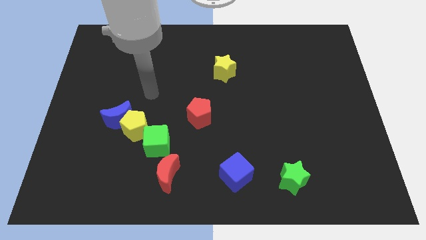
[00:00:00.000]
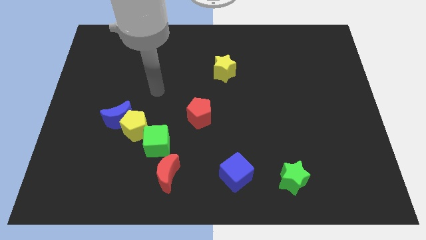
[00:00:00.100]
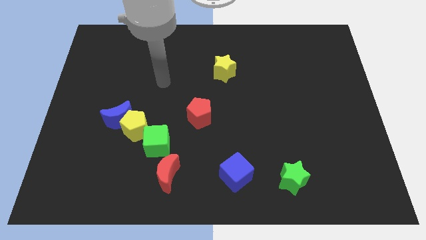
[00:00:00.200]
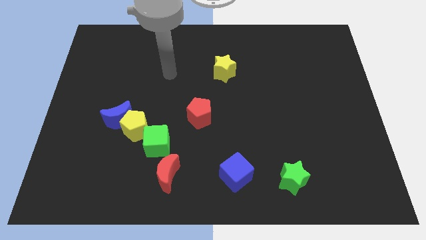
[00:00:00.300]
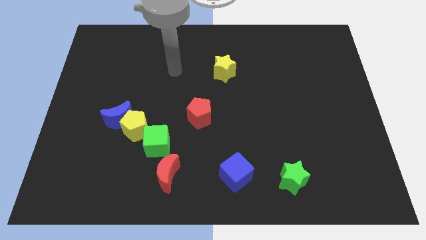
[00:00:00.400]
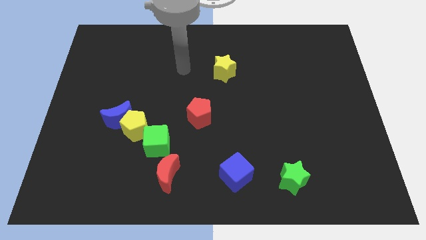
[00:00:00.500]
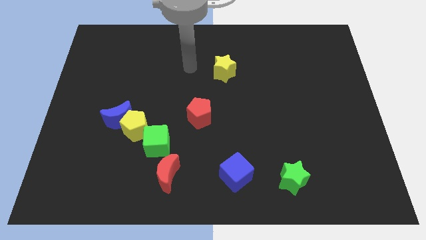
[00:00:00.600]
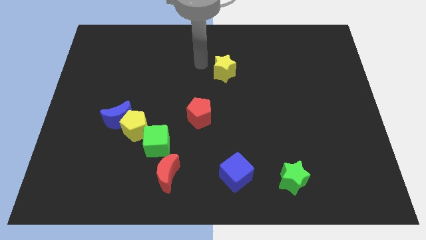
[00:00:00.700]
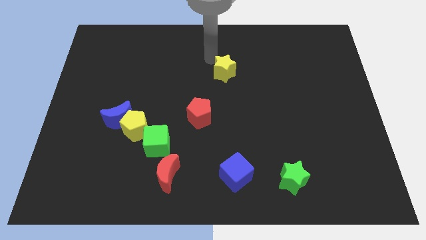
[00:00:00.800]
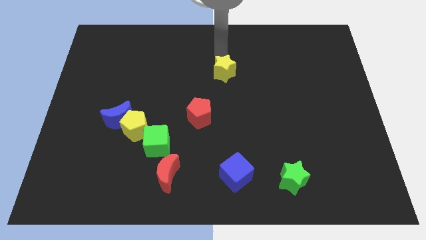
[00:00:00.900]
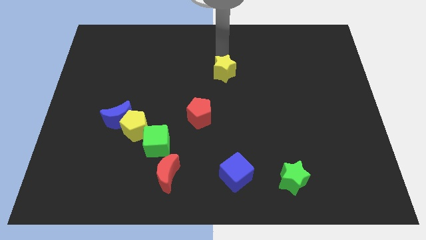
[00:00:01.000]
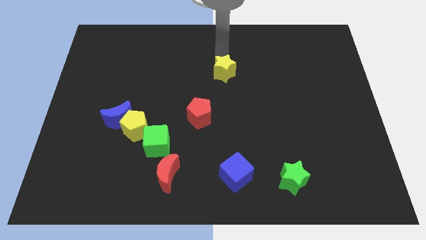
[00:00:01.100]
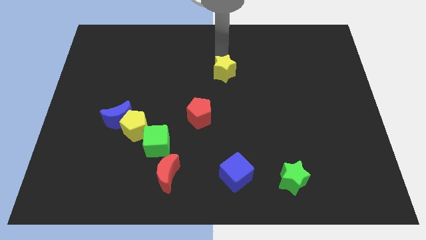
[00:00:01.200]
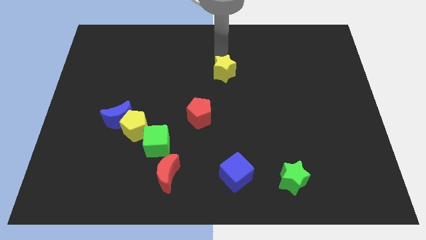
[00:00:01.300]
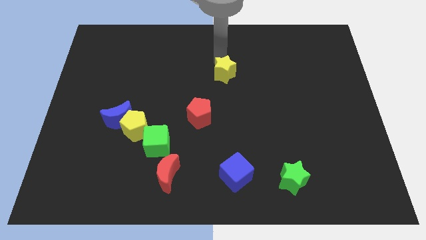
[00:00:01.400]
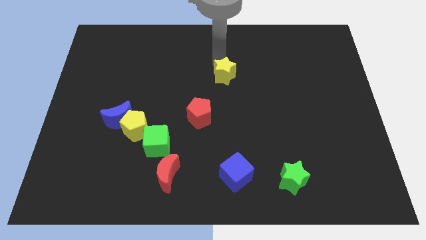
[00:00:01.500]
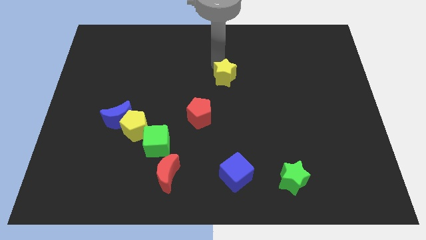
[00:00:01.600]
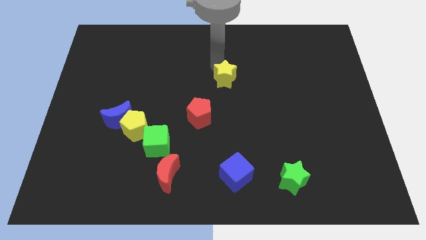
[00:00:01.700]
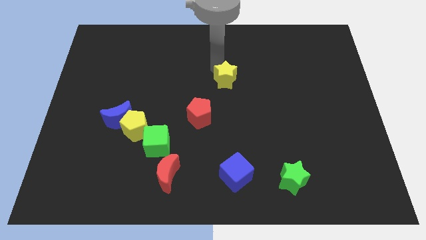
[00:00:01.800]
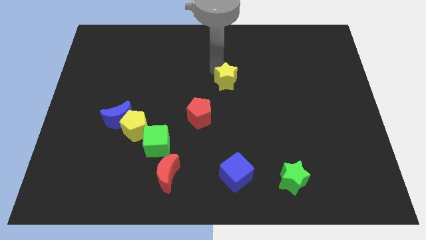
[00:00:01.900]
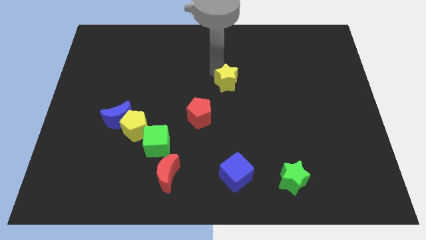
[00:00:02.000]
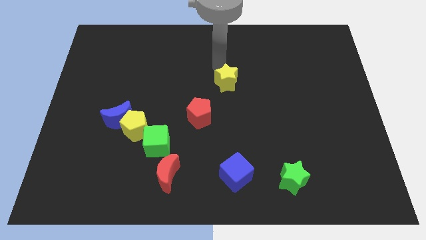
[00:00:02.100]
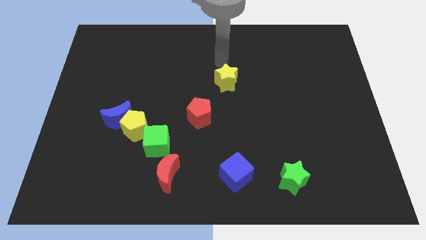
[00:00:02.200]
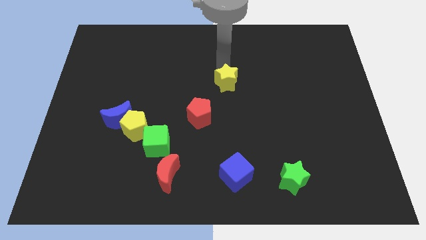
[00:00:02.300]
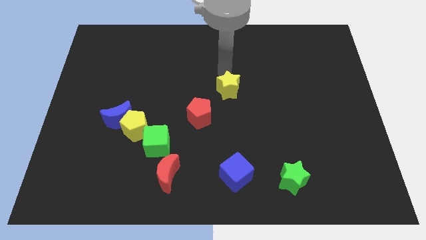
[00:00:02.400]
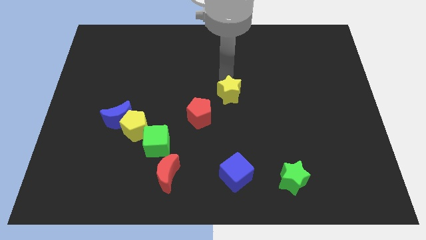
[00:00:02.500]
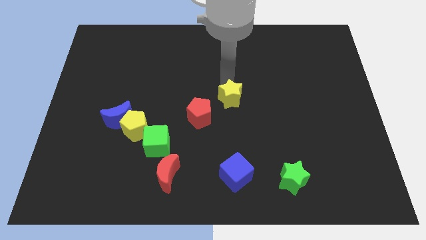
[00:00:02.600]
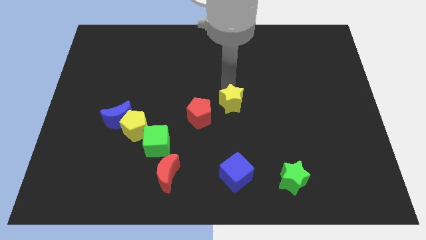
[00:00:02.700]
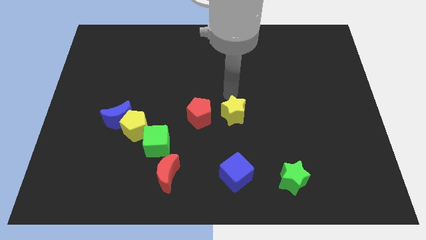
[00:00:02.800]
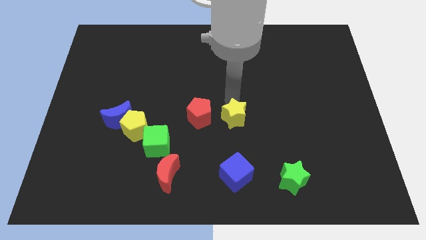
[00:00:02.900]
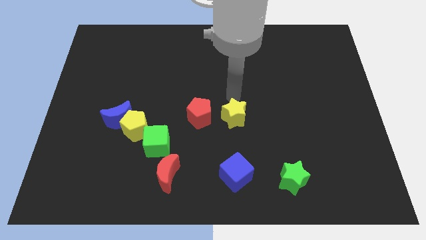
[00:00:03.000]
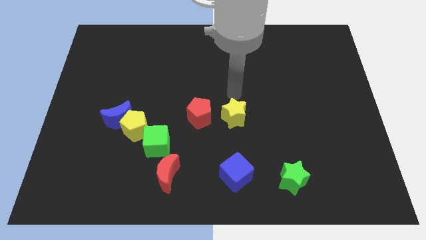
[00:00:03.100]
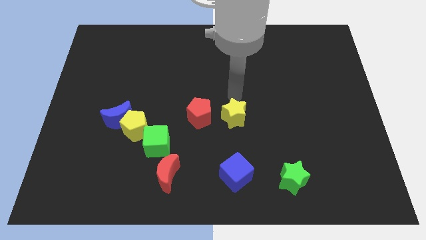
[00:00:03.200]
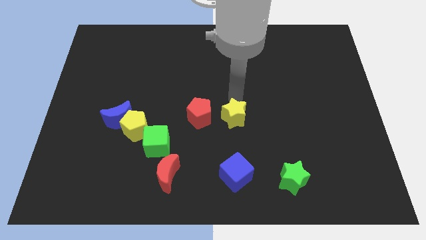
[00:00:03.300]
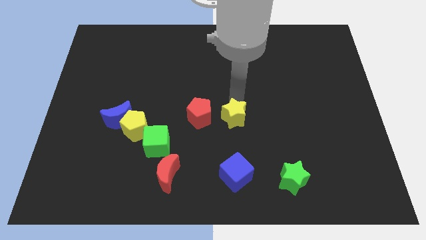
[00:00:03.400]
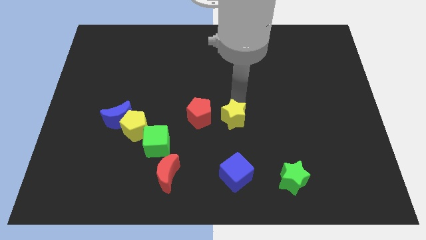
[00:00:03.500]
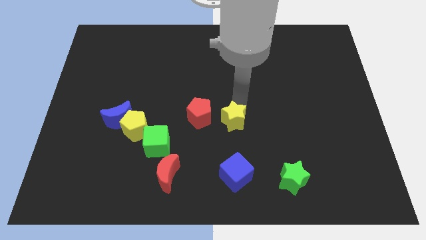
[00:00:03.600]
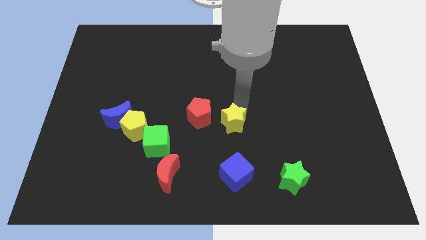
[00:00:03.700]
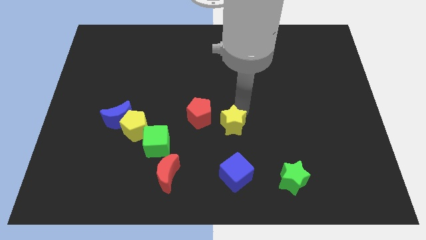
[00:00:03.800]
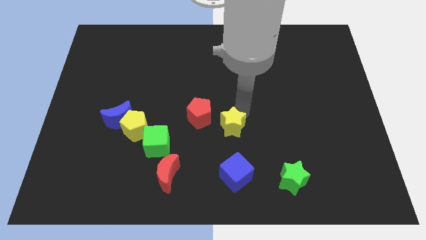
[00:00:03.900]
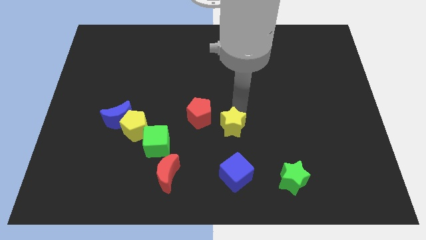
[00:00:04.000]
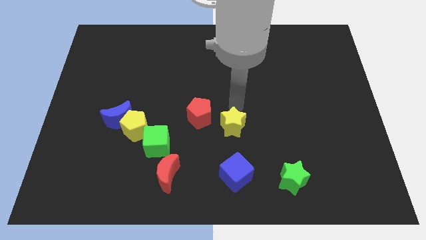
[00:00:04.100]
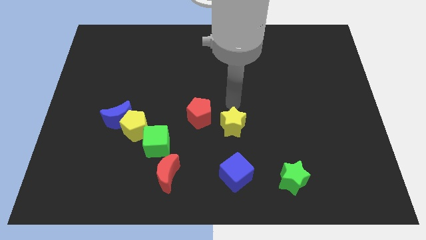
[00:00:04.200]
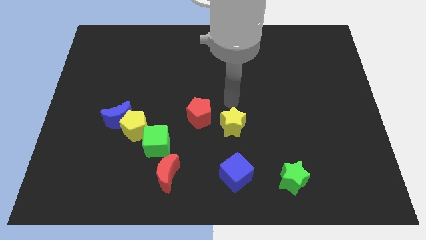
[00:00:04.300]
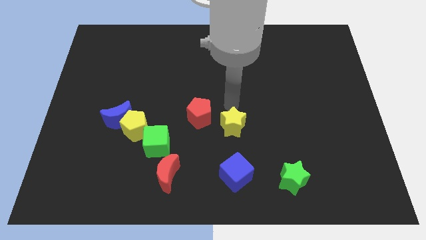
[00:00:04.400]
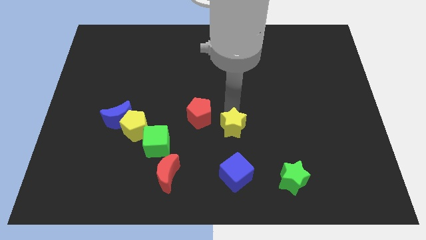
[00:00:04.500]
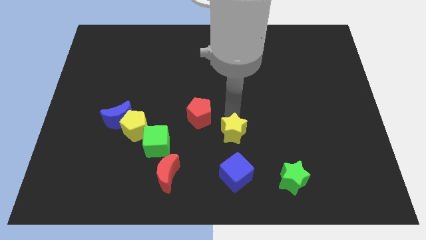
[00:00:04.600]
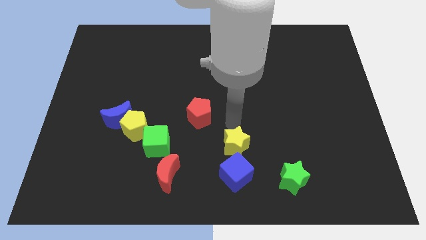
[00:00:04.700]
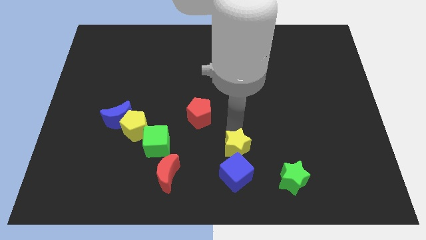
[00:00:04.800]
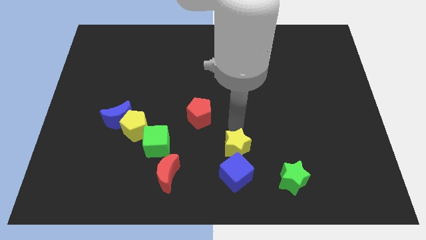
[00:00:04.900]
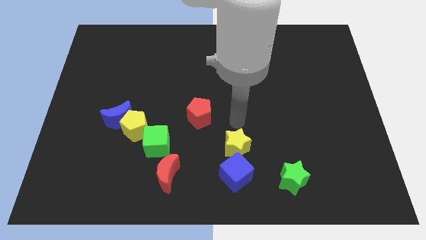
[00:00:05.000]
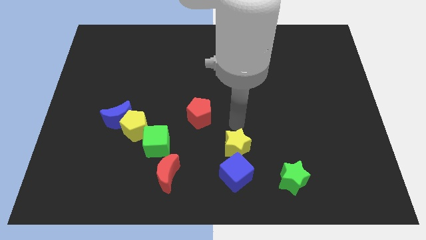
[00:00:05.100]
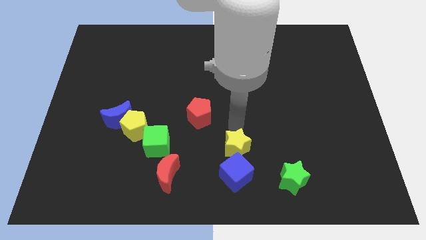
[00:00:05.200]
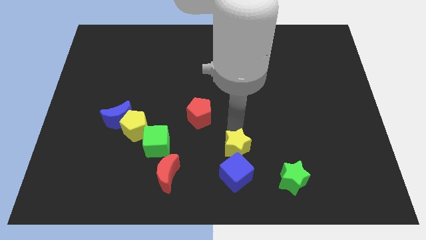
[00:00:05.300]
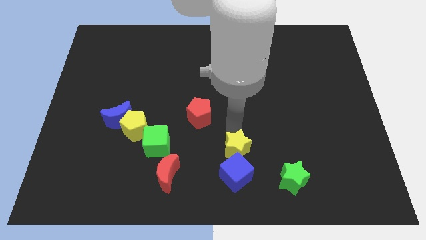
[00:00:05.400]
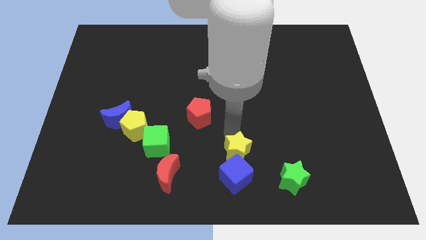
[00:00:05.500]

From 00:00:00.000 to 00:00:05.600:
move the yellow star close to the blue cube

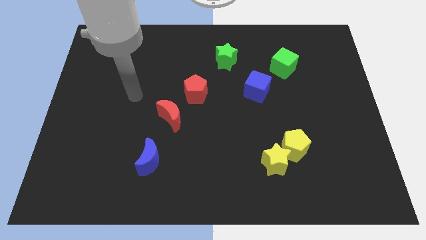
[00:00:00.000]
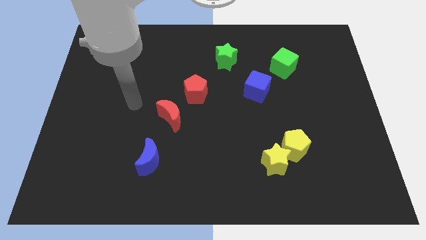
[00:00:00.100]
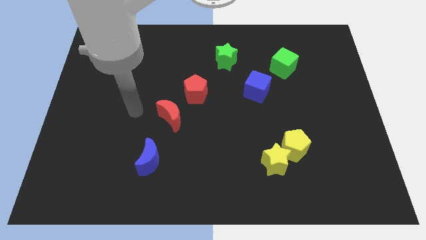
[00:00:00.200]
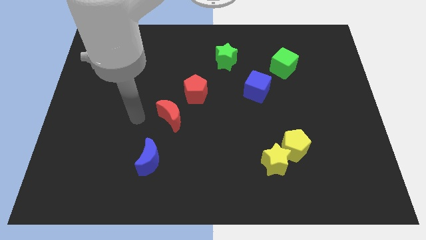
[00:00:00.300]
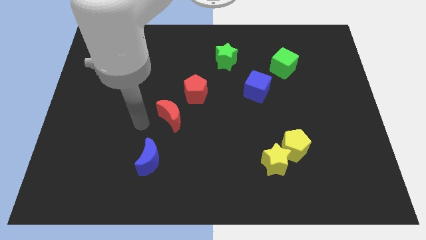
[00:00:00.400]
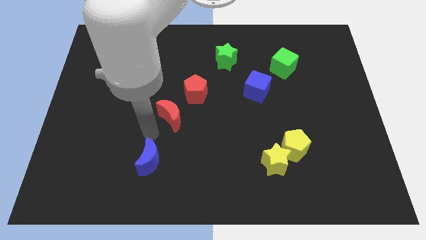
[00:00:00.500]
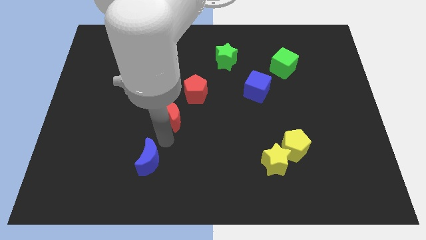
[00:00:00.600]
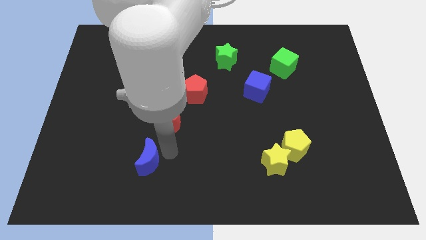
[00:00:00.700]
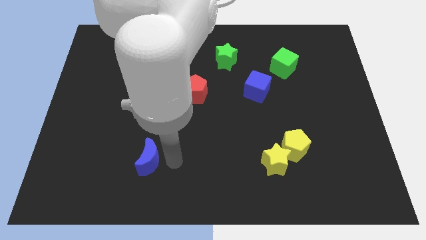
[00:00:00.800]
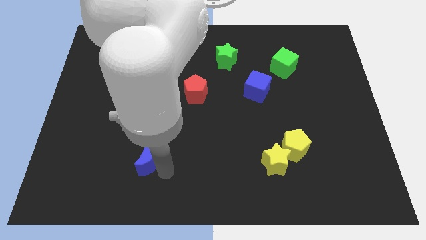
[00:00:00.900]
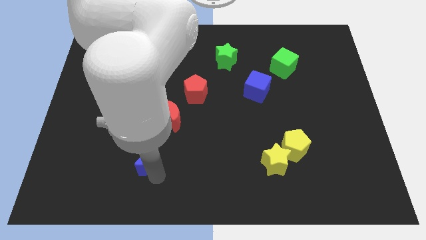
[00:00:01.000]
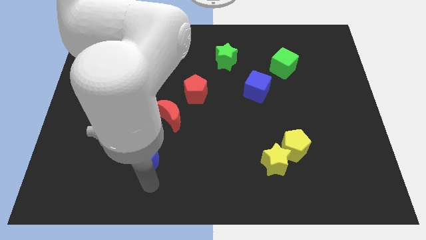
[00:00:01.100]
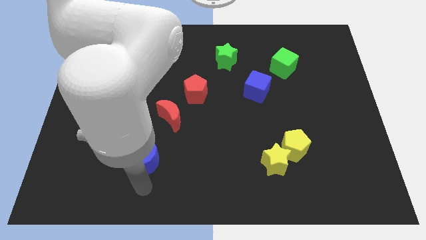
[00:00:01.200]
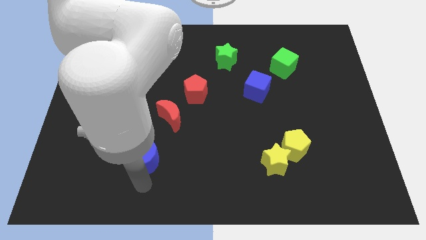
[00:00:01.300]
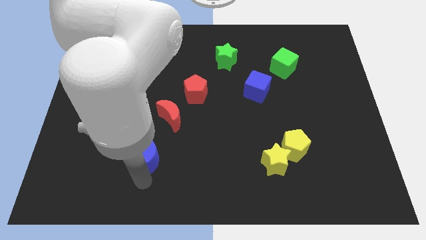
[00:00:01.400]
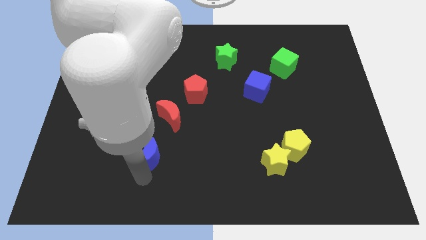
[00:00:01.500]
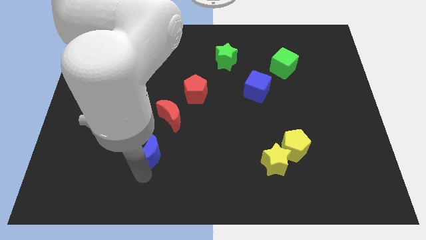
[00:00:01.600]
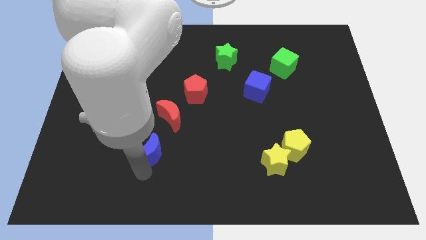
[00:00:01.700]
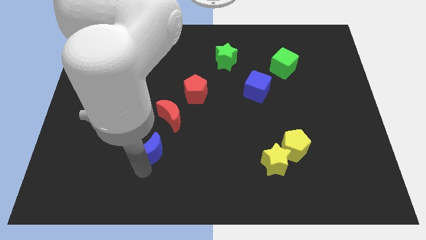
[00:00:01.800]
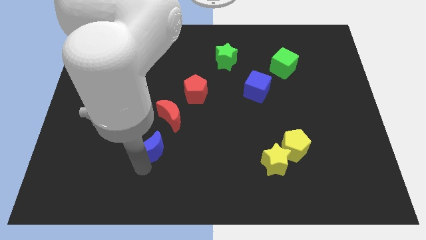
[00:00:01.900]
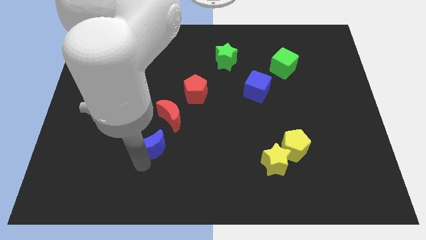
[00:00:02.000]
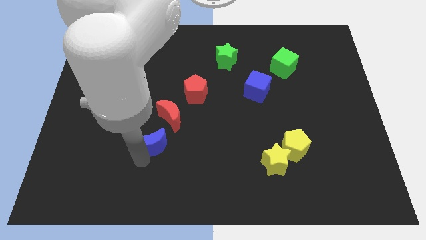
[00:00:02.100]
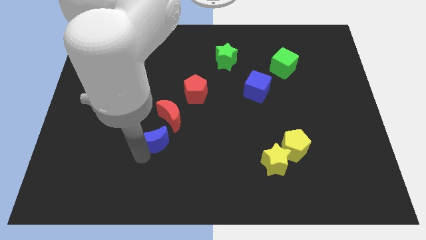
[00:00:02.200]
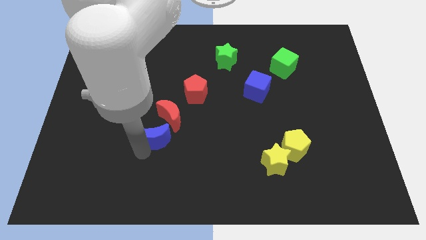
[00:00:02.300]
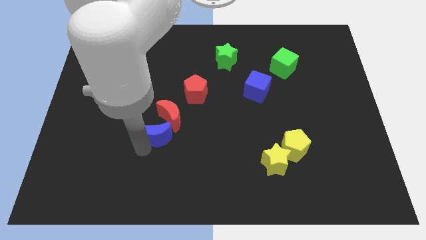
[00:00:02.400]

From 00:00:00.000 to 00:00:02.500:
slide the blue moon to the red moon
